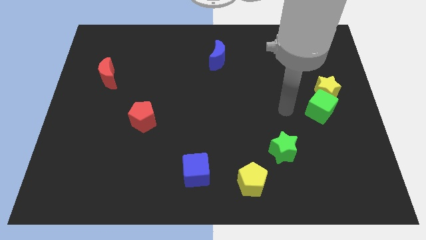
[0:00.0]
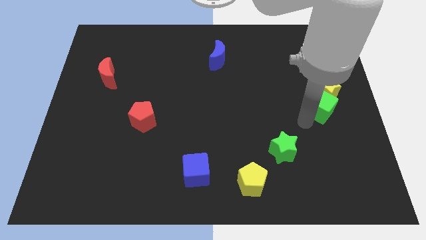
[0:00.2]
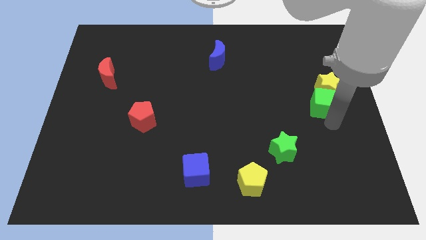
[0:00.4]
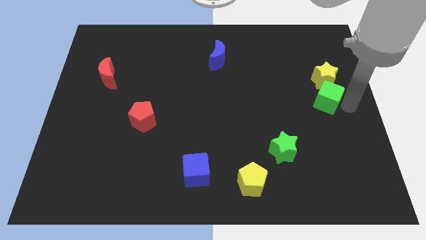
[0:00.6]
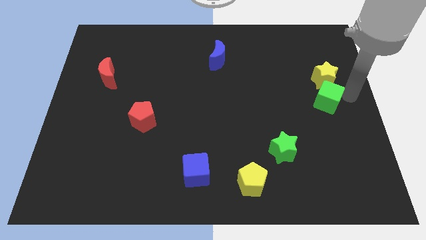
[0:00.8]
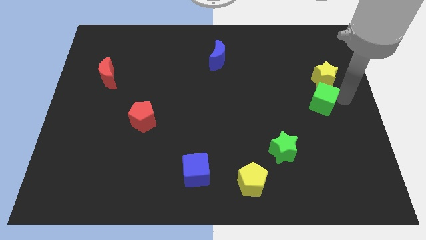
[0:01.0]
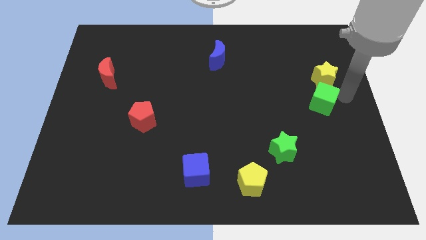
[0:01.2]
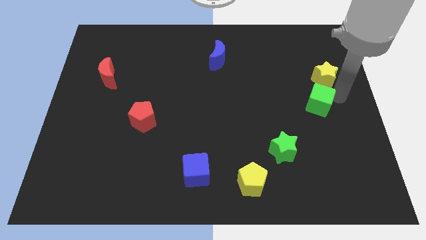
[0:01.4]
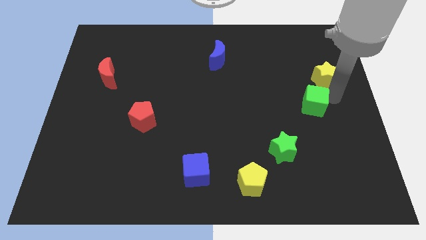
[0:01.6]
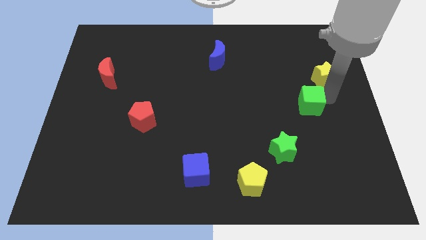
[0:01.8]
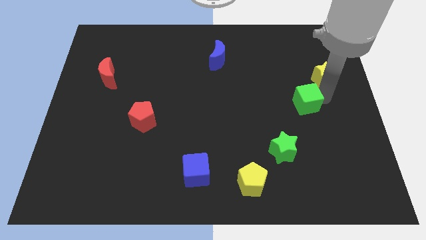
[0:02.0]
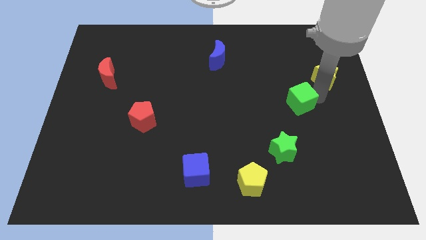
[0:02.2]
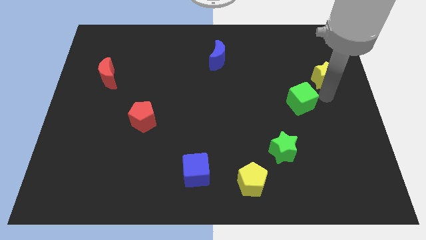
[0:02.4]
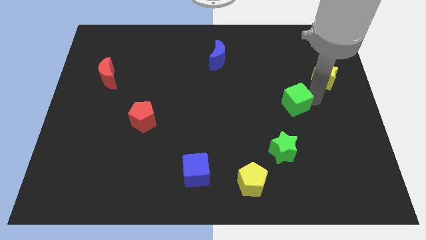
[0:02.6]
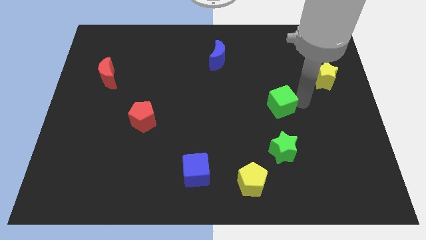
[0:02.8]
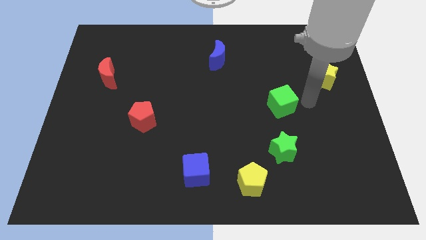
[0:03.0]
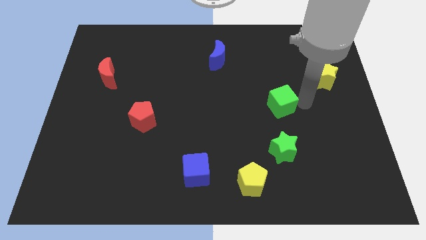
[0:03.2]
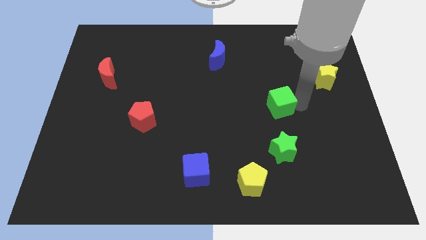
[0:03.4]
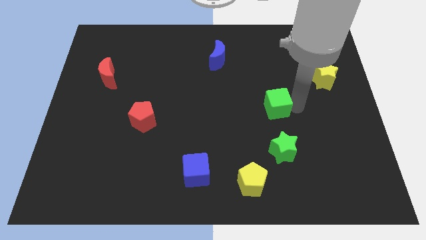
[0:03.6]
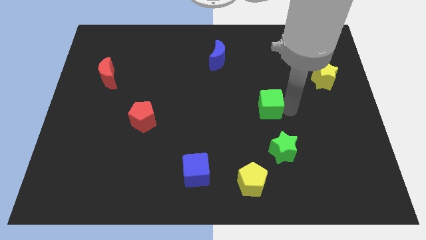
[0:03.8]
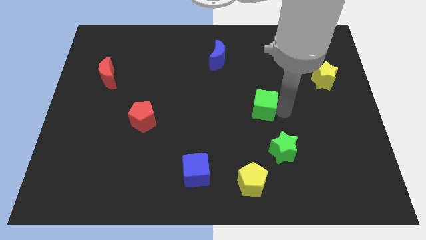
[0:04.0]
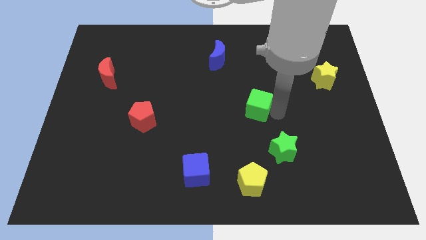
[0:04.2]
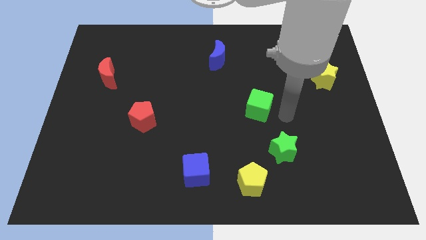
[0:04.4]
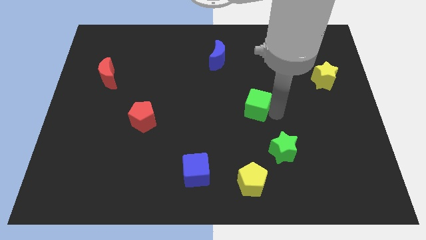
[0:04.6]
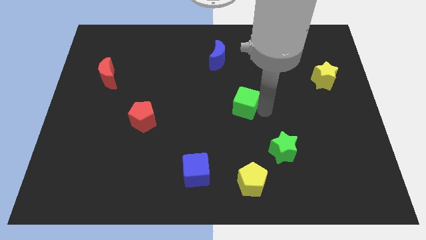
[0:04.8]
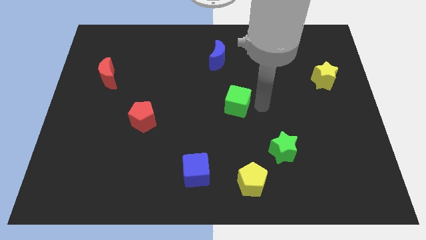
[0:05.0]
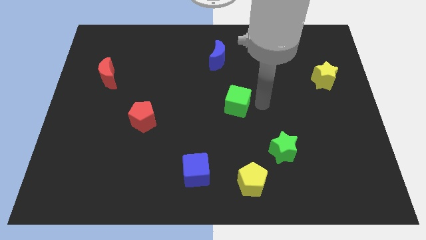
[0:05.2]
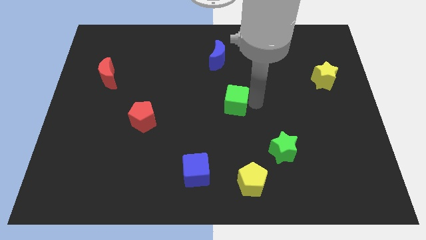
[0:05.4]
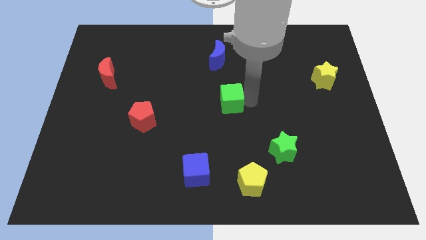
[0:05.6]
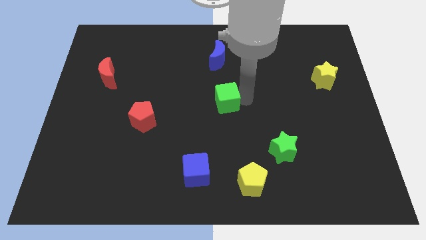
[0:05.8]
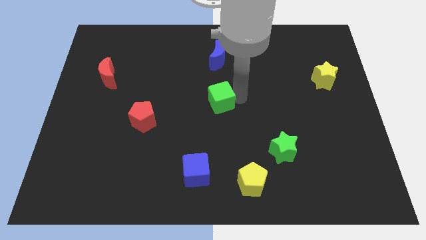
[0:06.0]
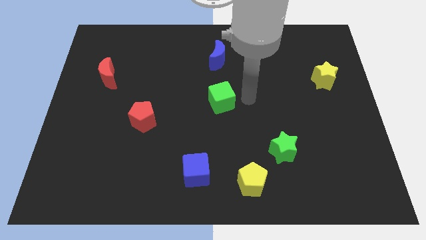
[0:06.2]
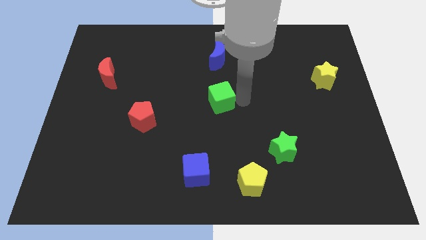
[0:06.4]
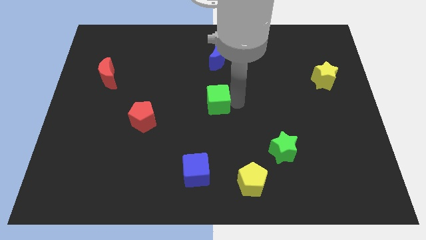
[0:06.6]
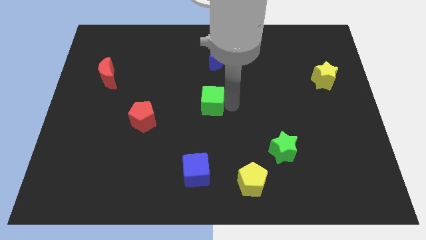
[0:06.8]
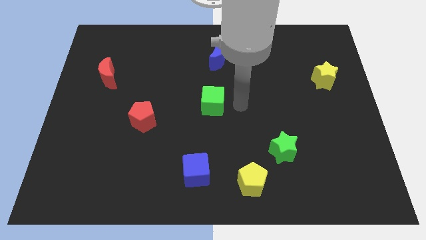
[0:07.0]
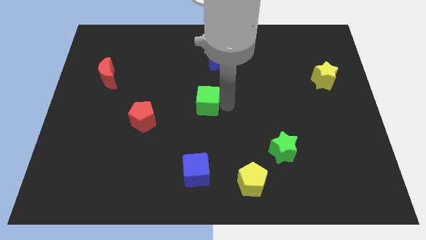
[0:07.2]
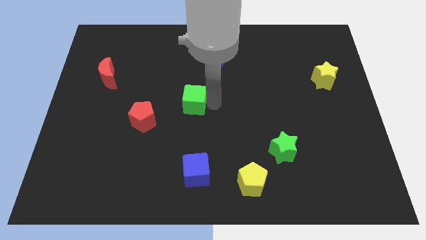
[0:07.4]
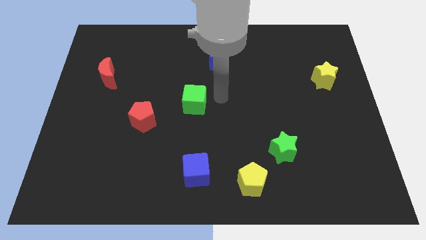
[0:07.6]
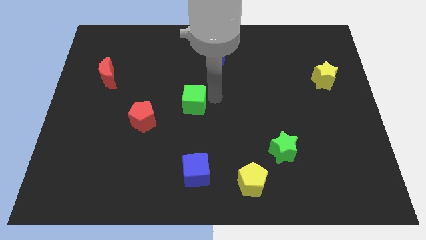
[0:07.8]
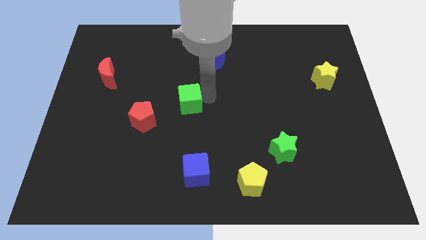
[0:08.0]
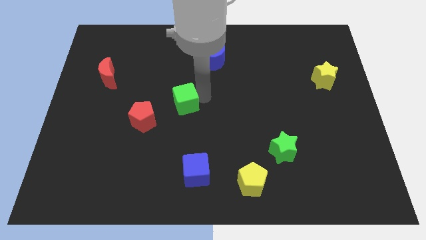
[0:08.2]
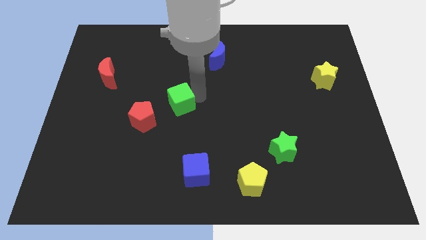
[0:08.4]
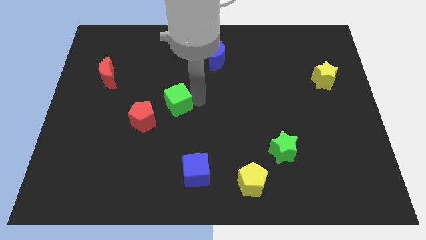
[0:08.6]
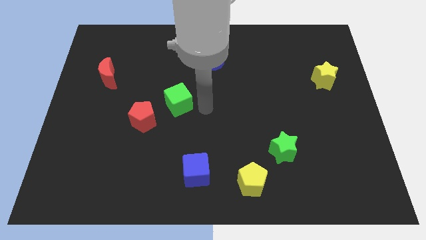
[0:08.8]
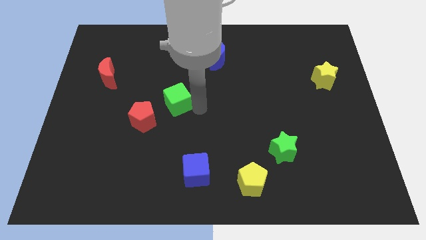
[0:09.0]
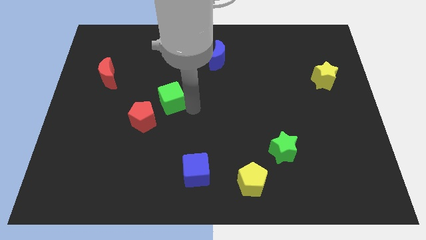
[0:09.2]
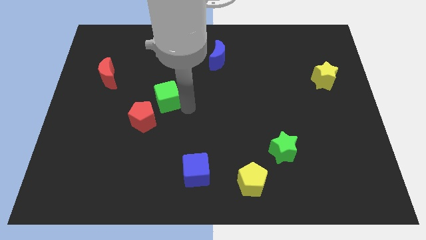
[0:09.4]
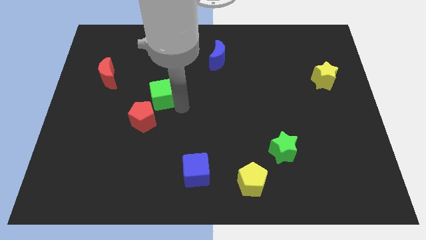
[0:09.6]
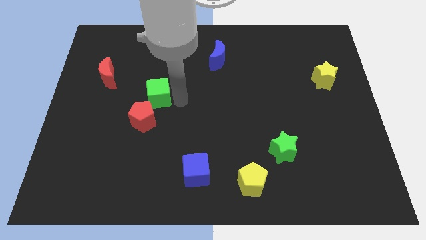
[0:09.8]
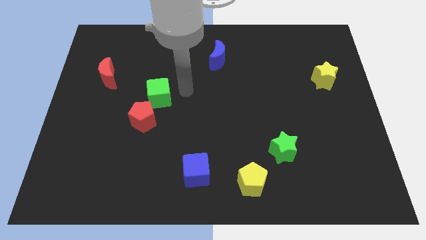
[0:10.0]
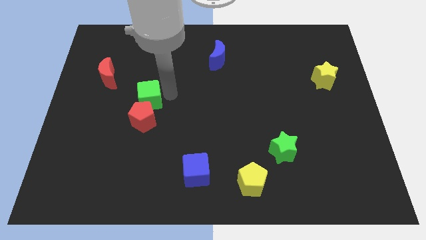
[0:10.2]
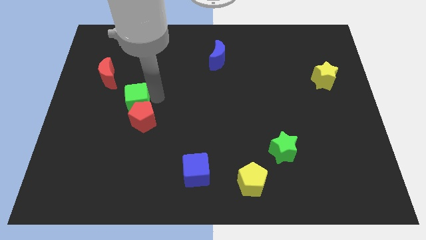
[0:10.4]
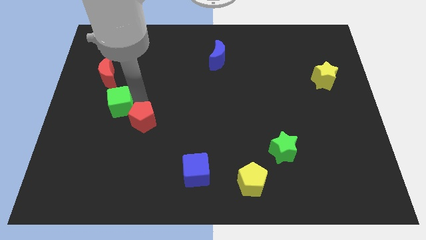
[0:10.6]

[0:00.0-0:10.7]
slide the green cube to the bottom of the red moon

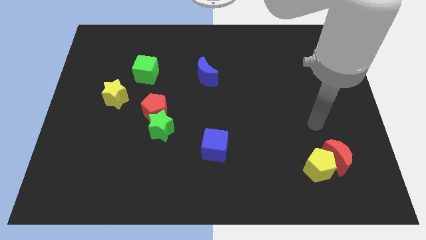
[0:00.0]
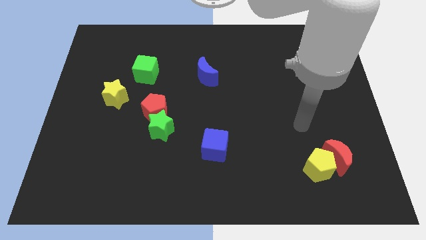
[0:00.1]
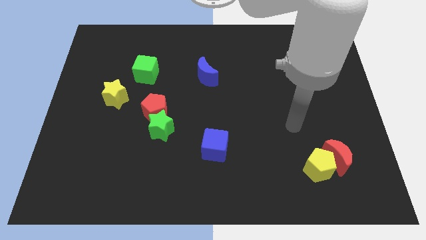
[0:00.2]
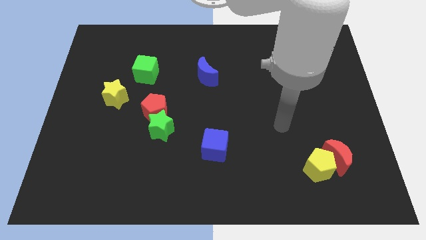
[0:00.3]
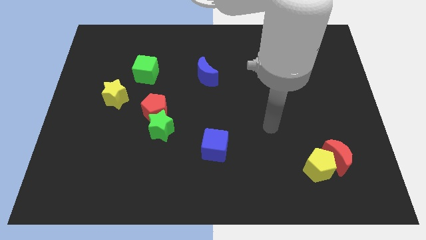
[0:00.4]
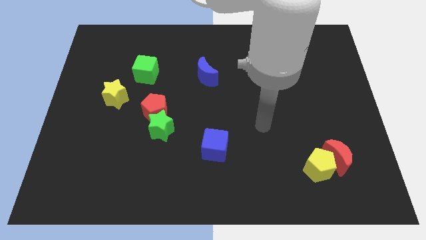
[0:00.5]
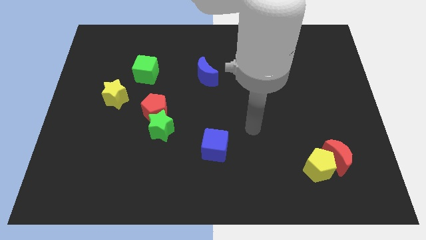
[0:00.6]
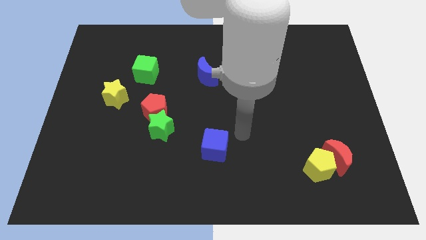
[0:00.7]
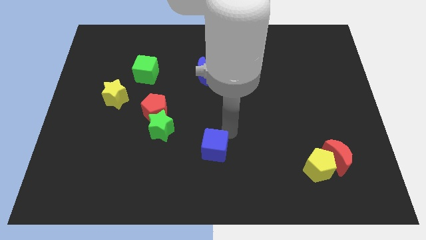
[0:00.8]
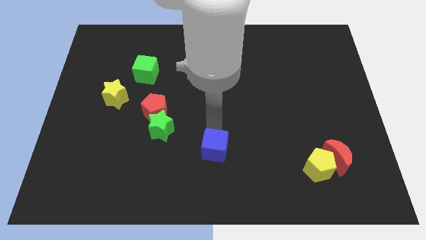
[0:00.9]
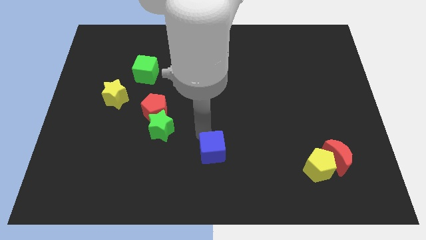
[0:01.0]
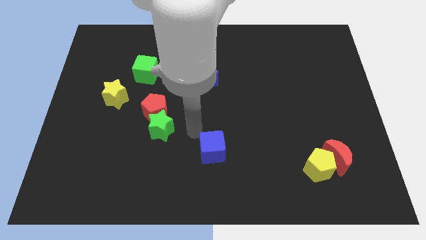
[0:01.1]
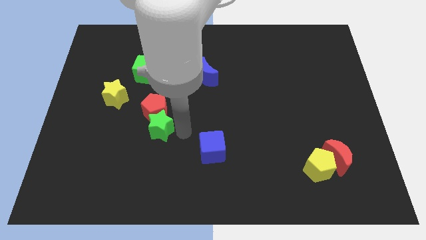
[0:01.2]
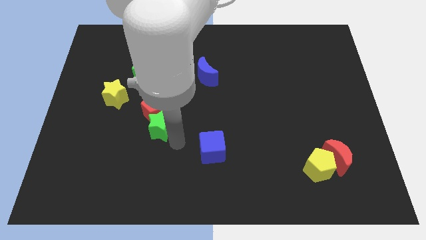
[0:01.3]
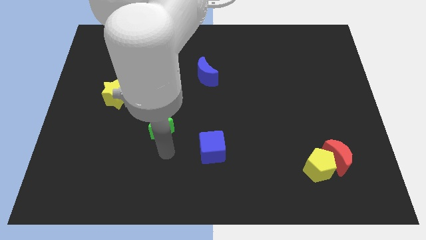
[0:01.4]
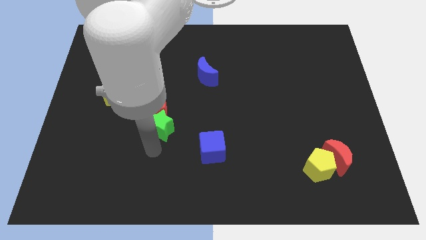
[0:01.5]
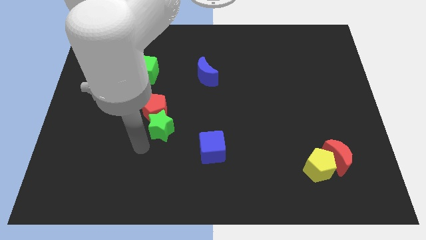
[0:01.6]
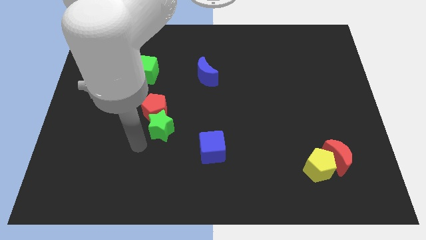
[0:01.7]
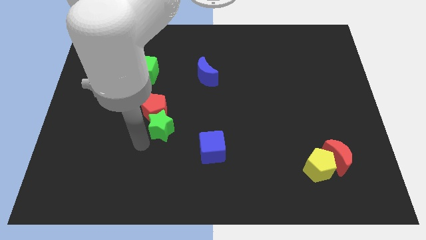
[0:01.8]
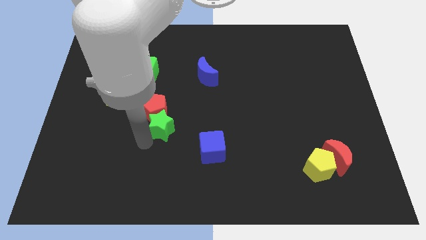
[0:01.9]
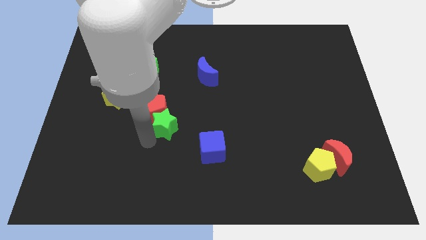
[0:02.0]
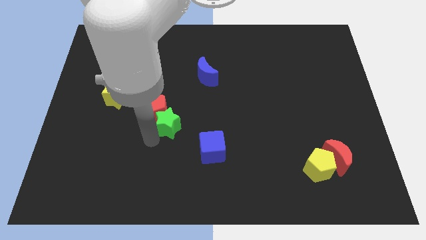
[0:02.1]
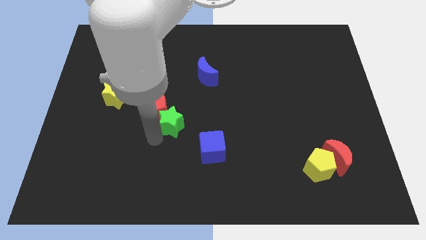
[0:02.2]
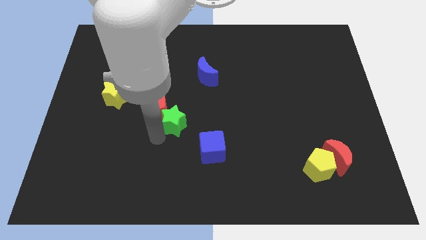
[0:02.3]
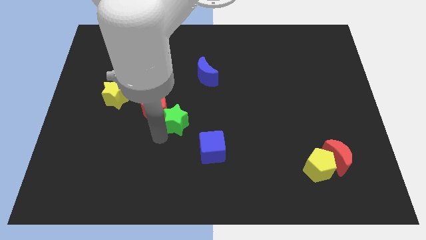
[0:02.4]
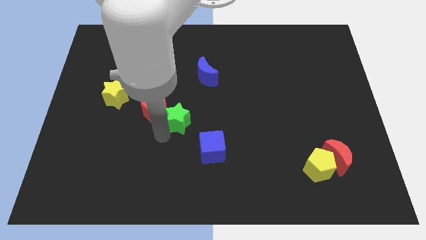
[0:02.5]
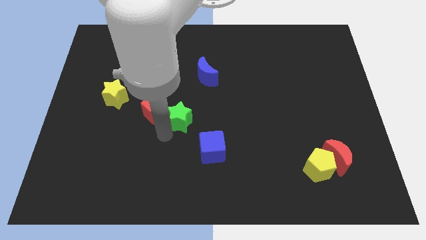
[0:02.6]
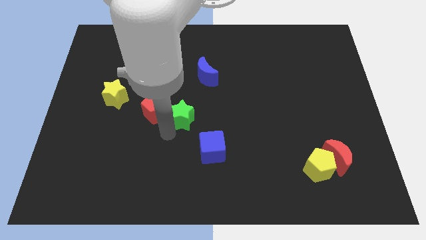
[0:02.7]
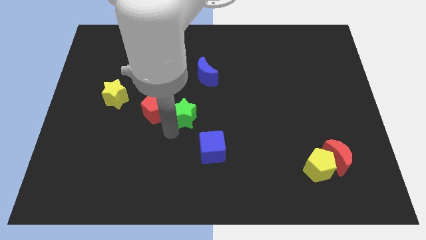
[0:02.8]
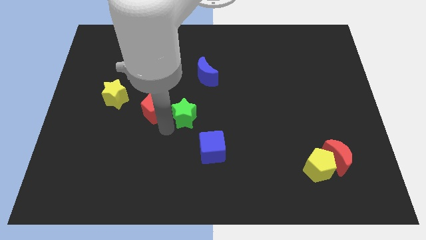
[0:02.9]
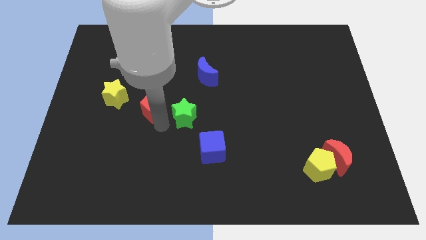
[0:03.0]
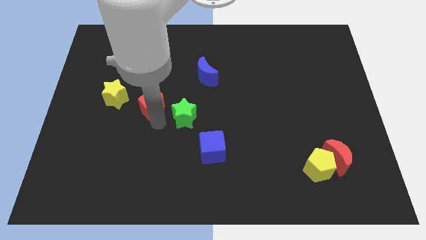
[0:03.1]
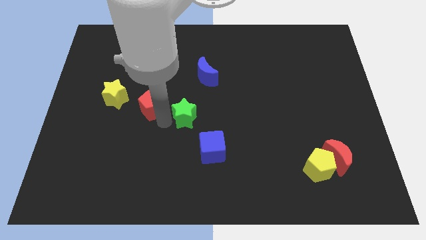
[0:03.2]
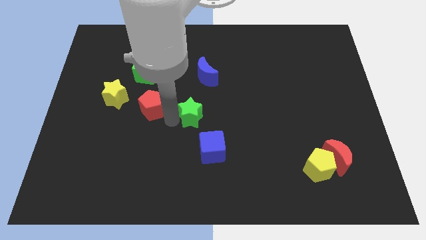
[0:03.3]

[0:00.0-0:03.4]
move the green star above the blue cube
